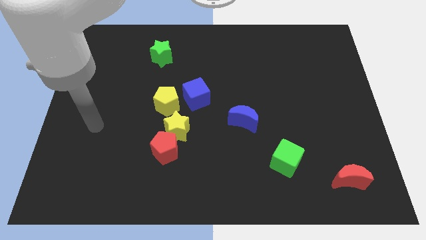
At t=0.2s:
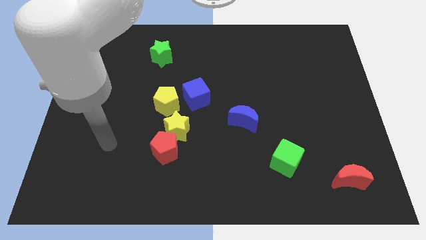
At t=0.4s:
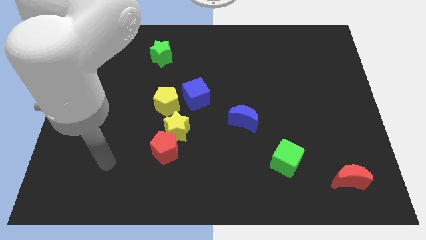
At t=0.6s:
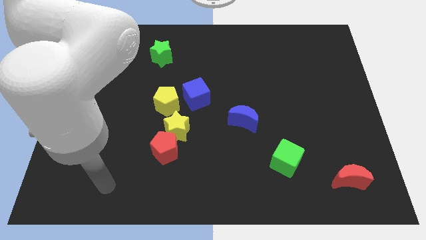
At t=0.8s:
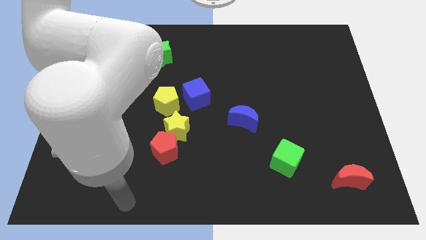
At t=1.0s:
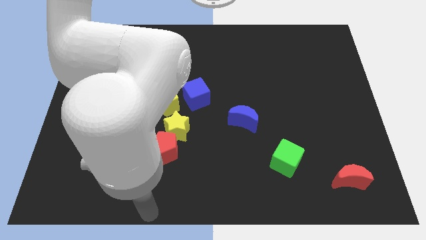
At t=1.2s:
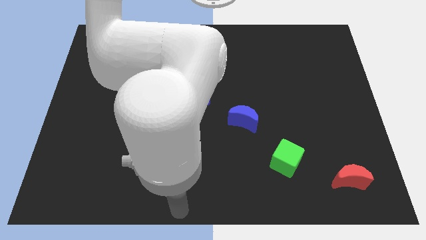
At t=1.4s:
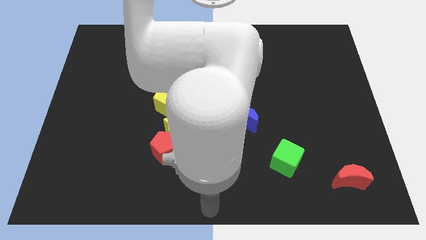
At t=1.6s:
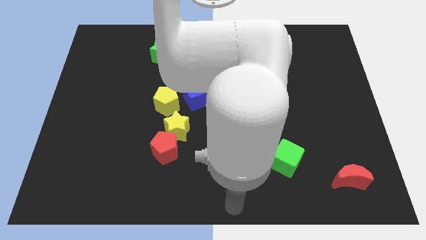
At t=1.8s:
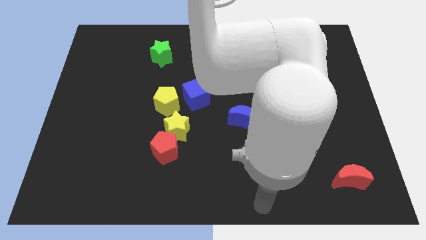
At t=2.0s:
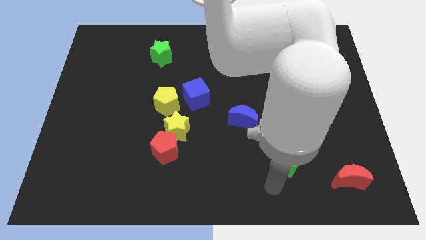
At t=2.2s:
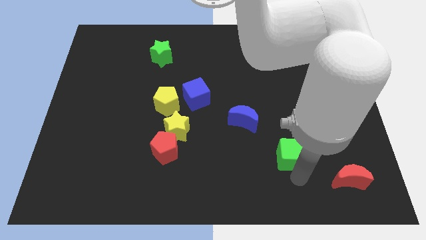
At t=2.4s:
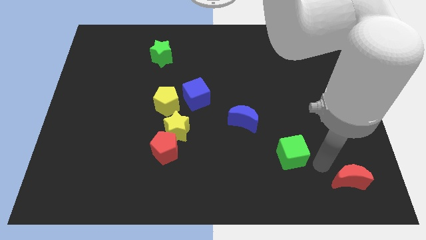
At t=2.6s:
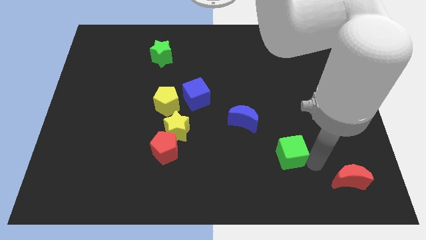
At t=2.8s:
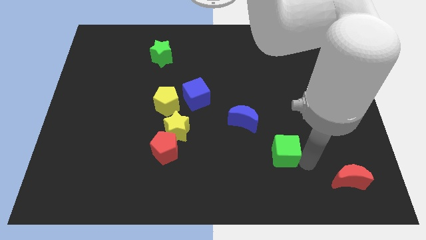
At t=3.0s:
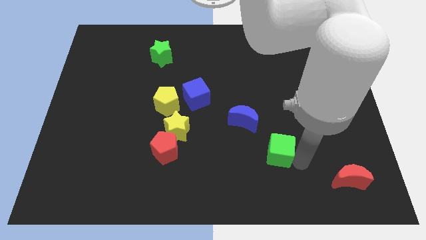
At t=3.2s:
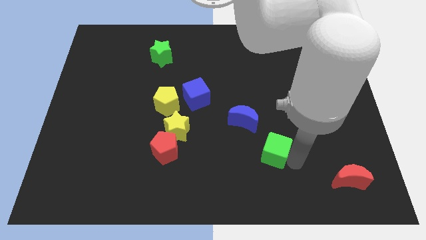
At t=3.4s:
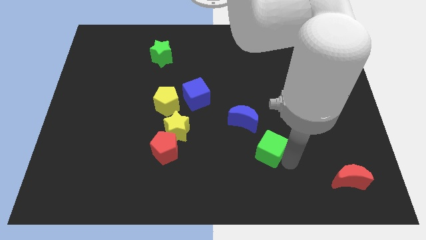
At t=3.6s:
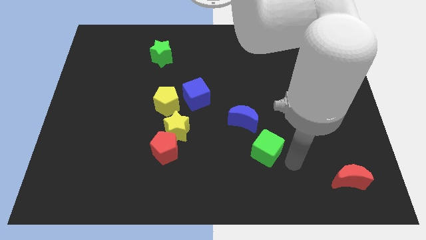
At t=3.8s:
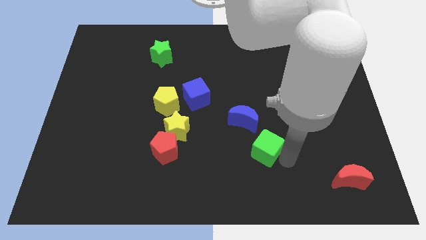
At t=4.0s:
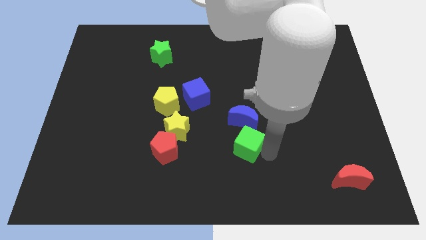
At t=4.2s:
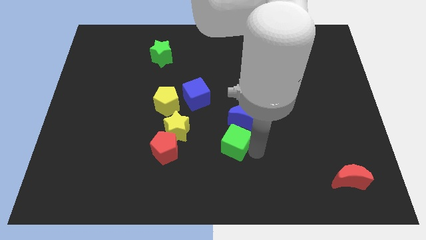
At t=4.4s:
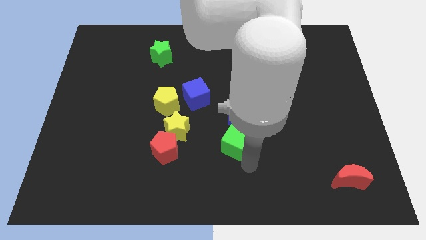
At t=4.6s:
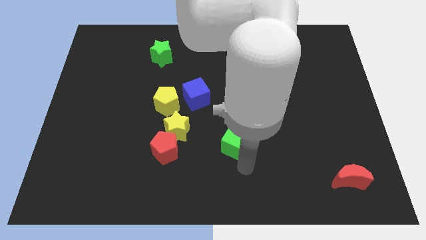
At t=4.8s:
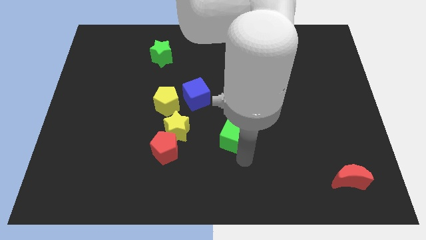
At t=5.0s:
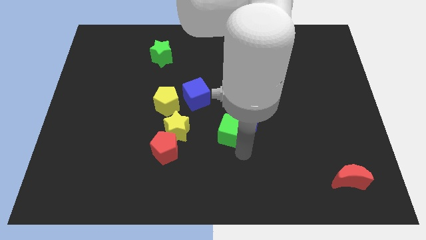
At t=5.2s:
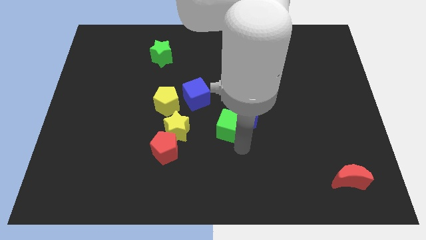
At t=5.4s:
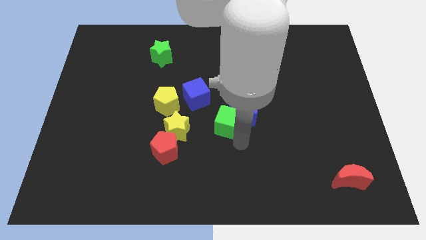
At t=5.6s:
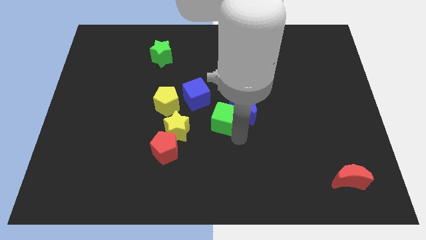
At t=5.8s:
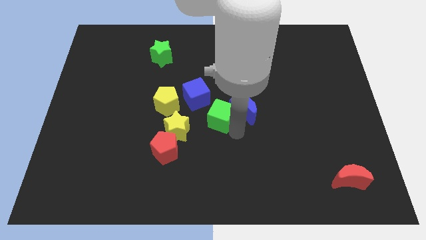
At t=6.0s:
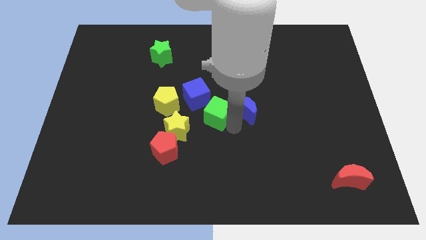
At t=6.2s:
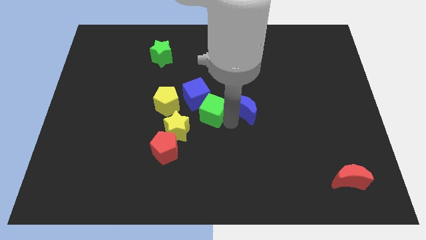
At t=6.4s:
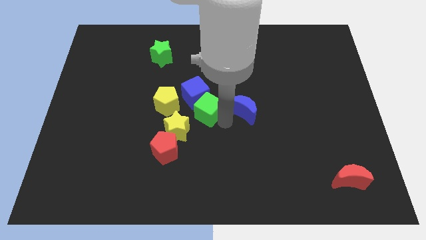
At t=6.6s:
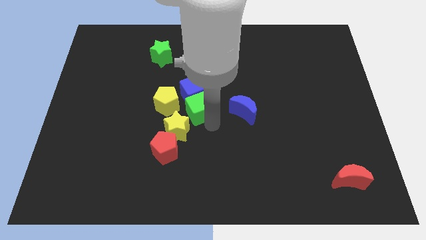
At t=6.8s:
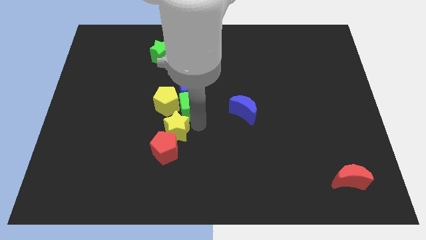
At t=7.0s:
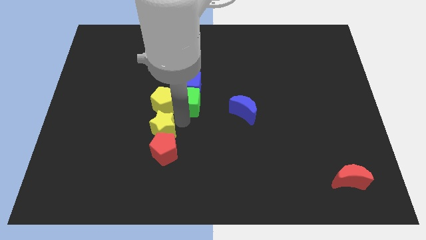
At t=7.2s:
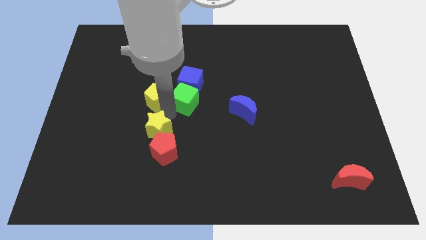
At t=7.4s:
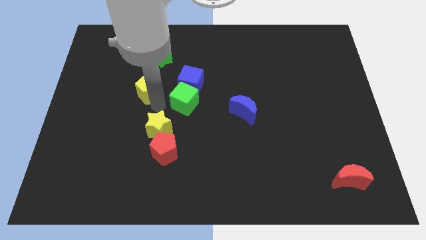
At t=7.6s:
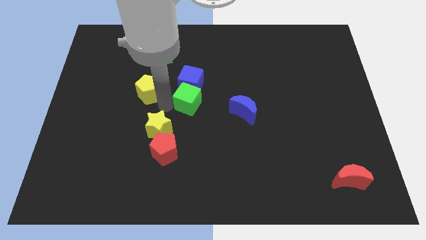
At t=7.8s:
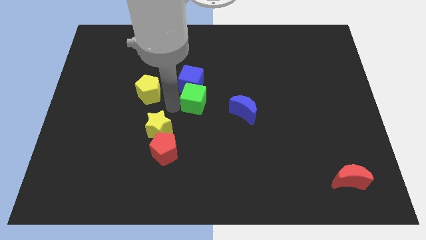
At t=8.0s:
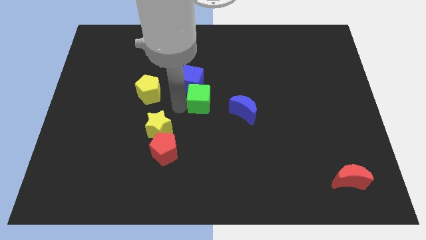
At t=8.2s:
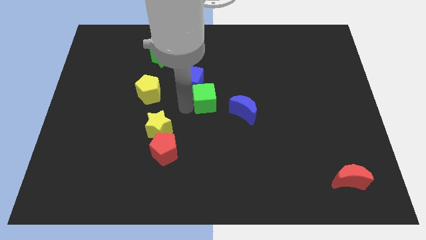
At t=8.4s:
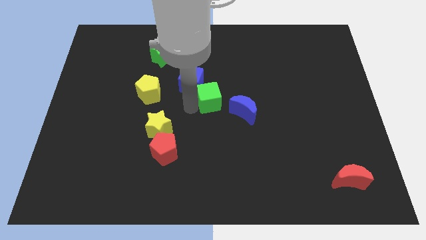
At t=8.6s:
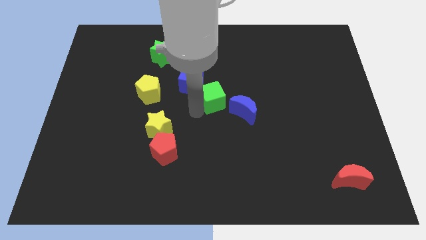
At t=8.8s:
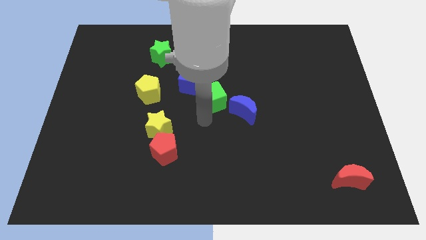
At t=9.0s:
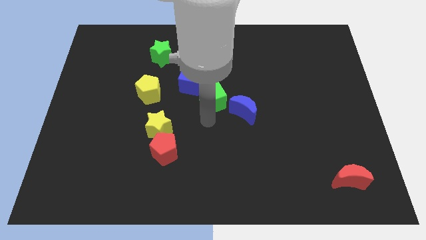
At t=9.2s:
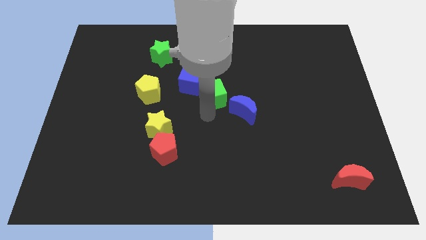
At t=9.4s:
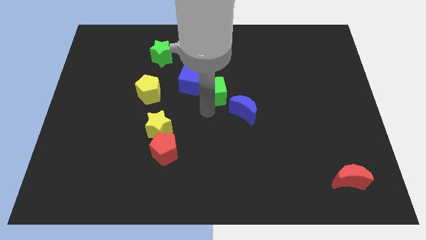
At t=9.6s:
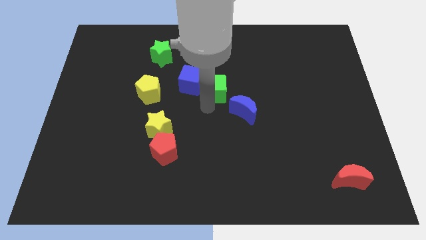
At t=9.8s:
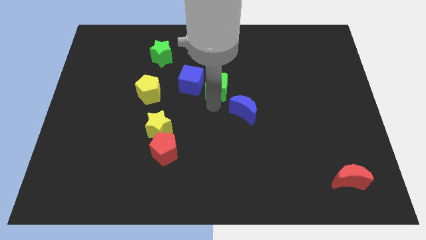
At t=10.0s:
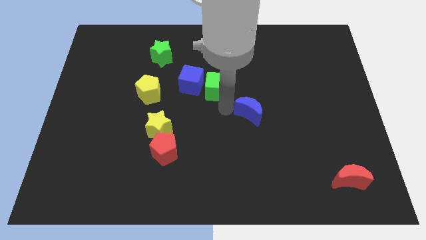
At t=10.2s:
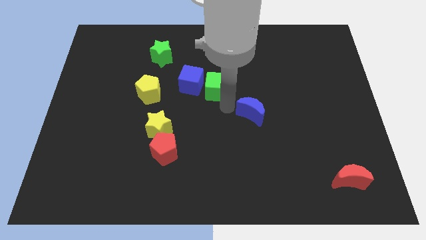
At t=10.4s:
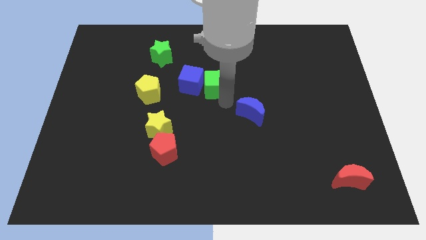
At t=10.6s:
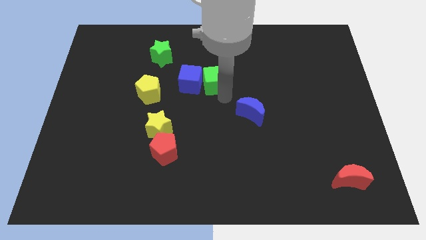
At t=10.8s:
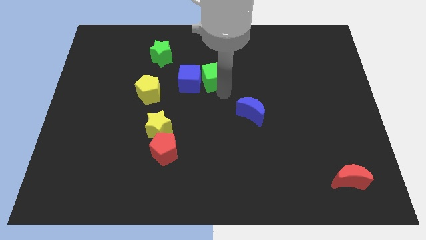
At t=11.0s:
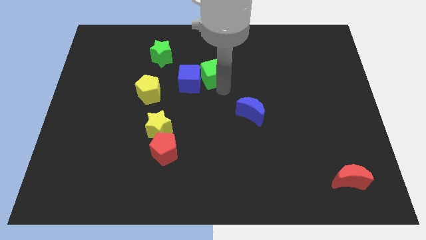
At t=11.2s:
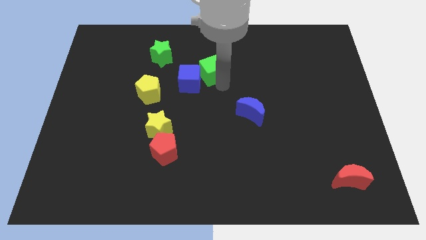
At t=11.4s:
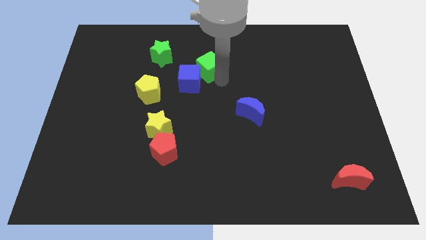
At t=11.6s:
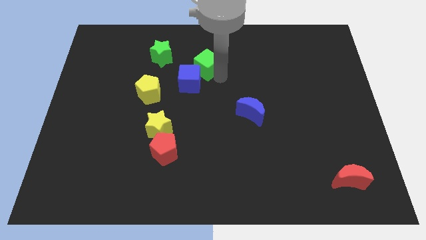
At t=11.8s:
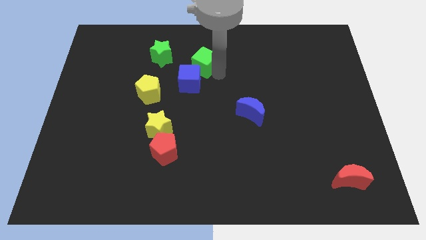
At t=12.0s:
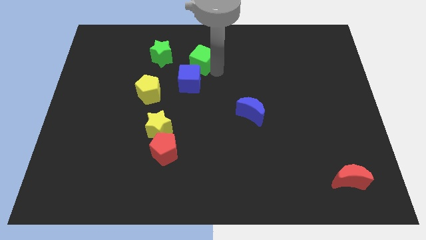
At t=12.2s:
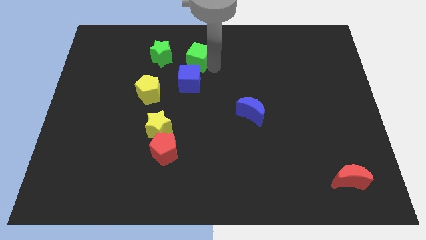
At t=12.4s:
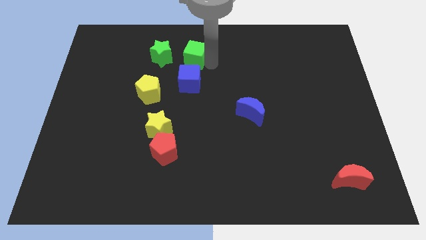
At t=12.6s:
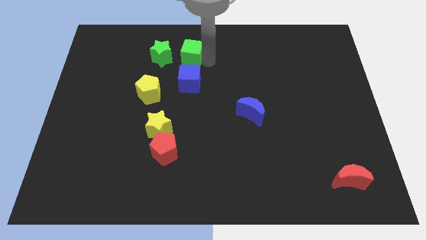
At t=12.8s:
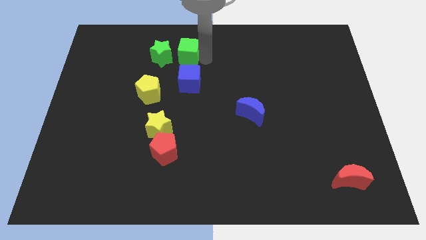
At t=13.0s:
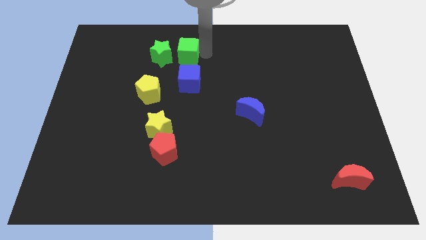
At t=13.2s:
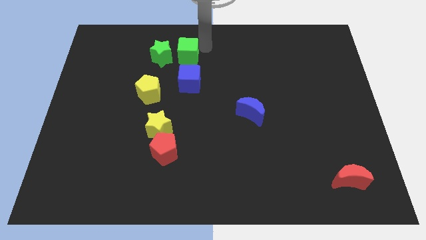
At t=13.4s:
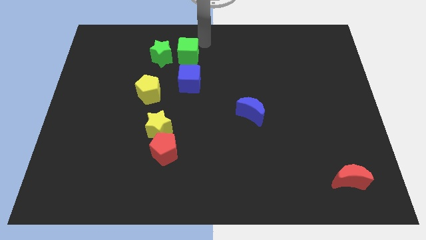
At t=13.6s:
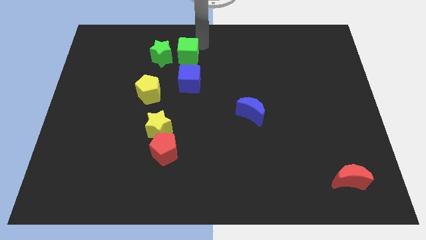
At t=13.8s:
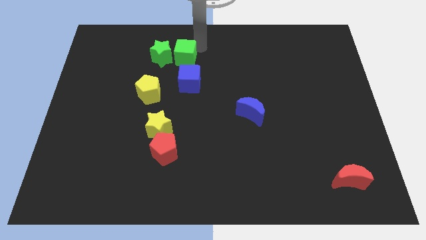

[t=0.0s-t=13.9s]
push the green cube to the green star

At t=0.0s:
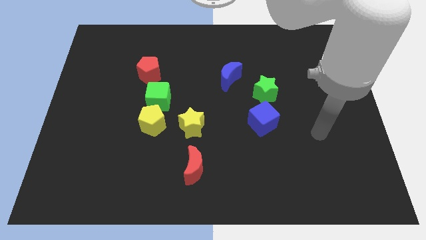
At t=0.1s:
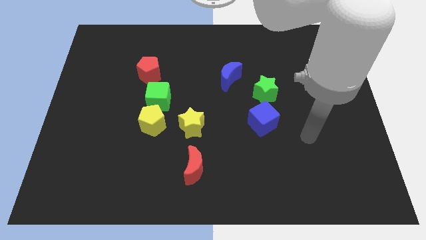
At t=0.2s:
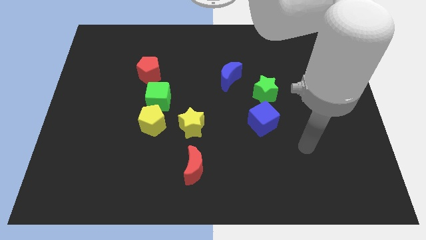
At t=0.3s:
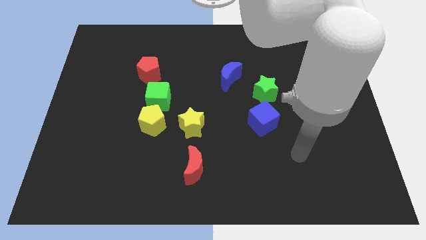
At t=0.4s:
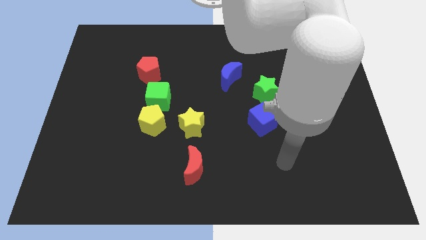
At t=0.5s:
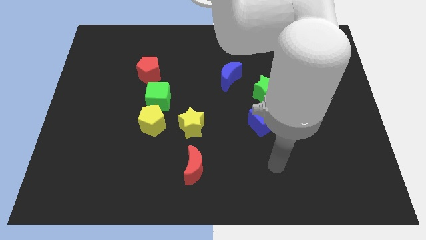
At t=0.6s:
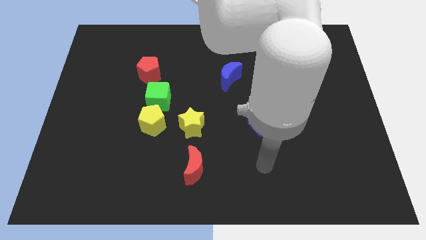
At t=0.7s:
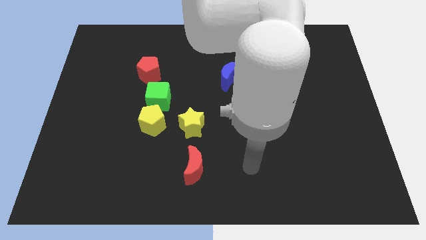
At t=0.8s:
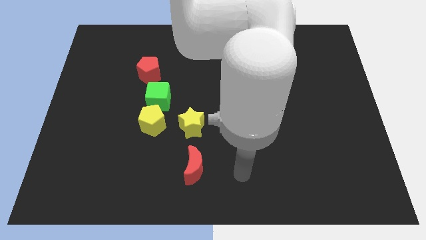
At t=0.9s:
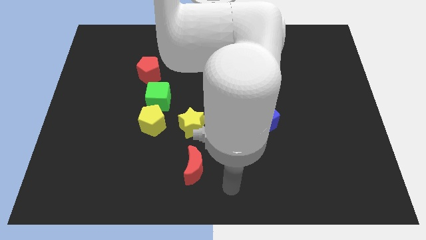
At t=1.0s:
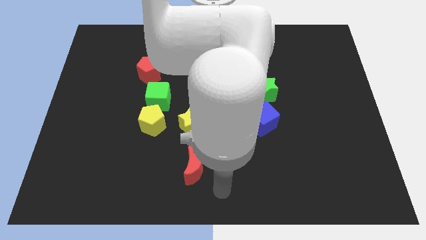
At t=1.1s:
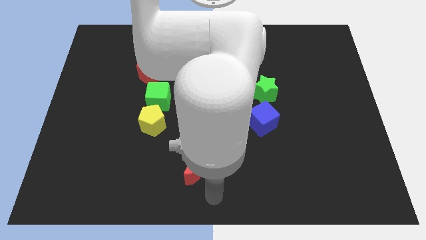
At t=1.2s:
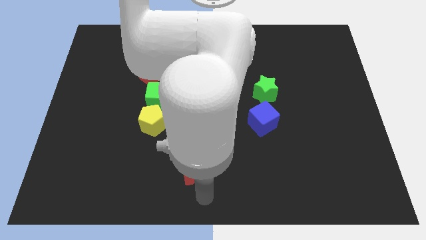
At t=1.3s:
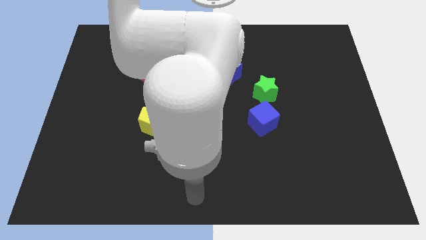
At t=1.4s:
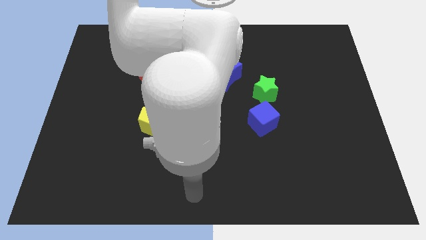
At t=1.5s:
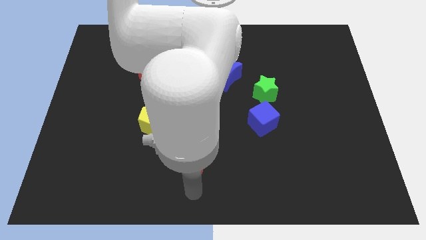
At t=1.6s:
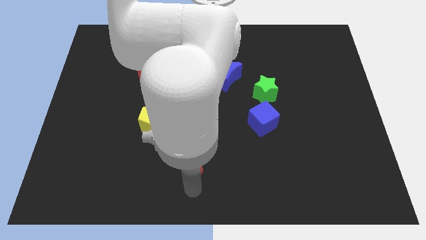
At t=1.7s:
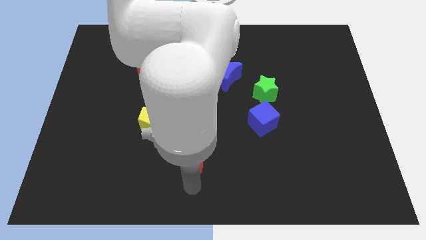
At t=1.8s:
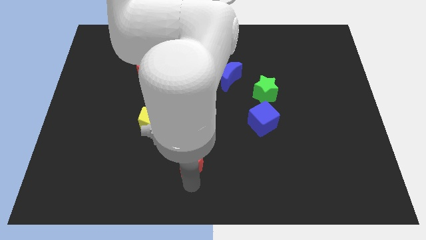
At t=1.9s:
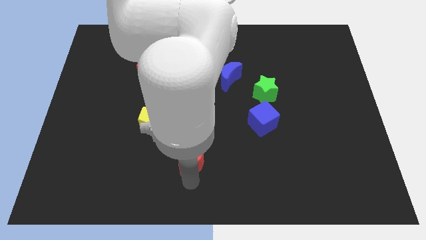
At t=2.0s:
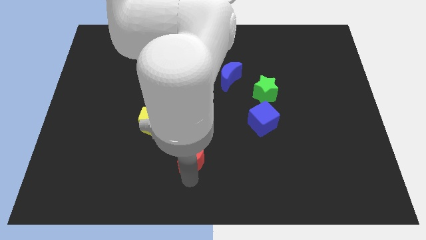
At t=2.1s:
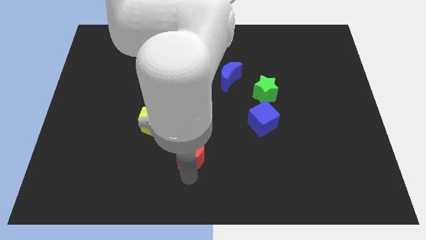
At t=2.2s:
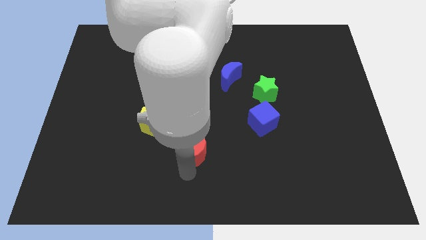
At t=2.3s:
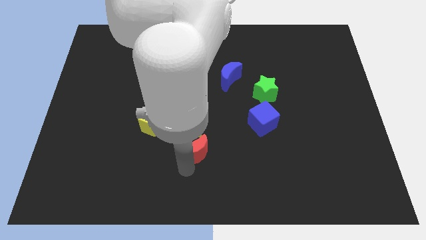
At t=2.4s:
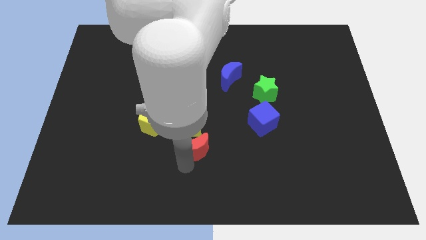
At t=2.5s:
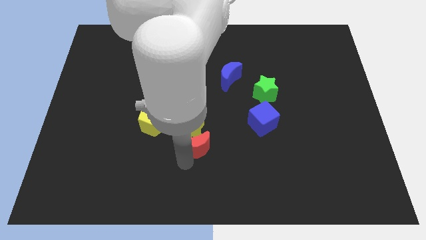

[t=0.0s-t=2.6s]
push the red moon to the yellow star
